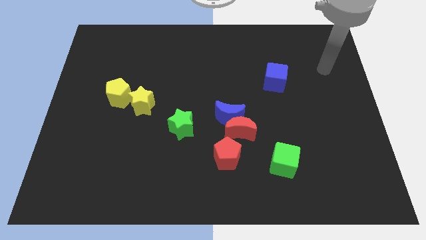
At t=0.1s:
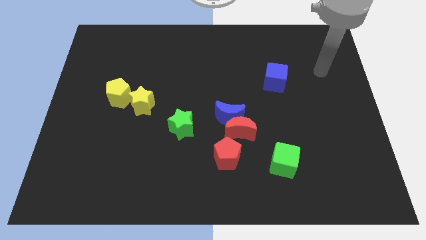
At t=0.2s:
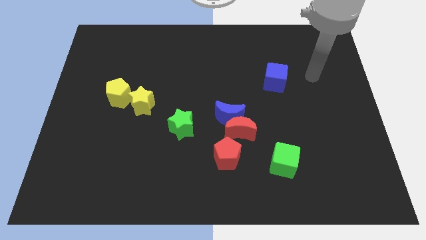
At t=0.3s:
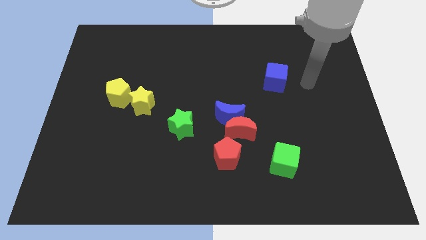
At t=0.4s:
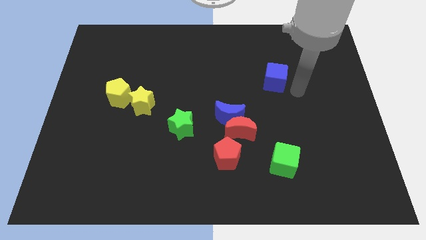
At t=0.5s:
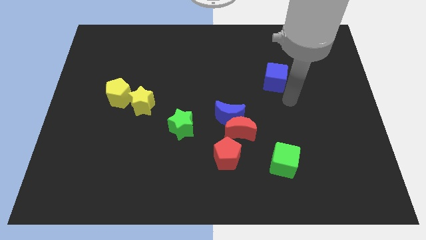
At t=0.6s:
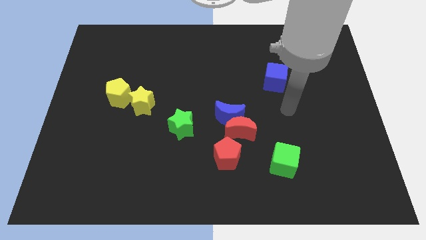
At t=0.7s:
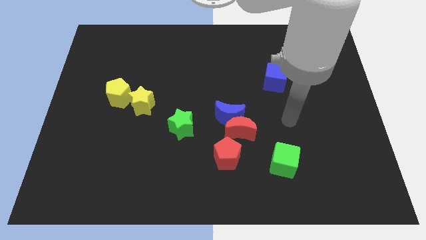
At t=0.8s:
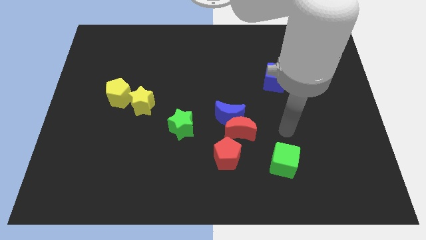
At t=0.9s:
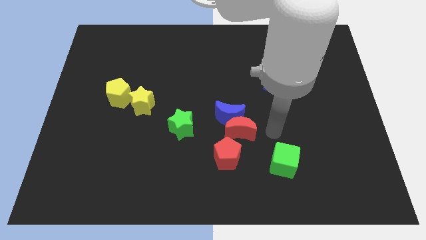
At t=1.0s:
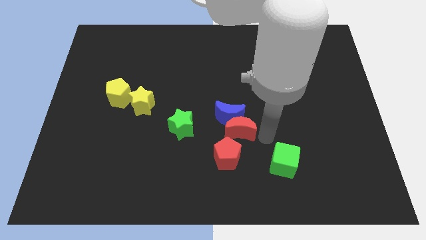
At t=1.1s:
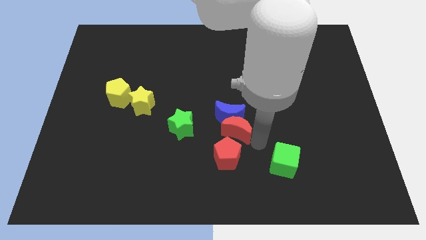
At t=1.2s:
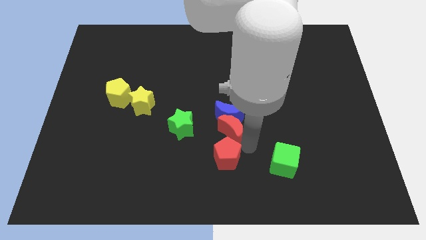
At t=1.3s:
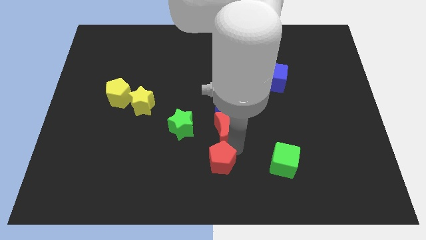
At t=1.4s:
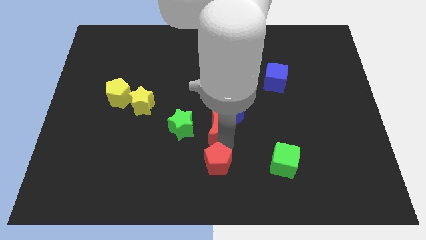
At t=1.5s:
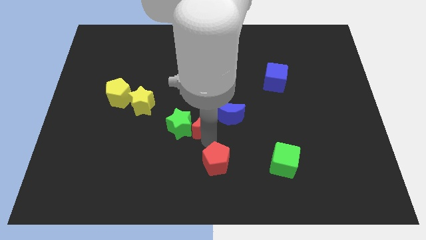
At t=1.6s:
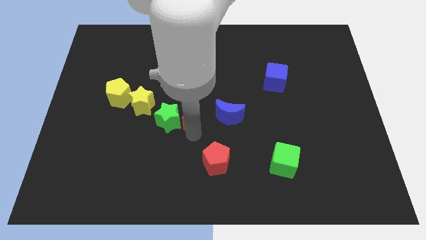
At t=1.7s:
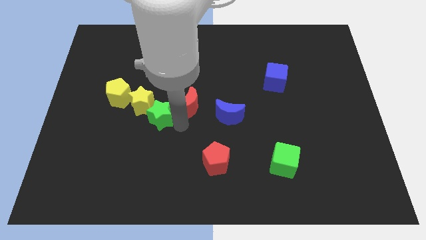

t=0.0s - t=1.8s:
move the red moon away from the blue moon and red pentagon

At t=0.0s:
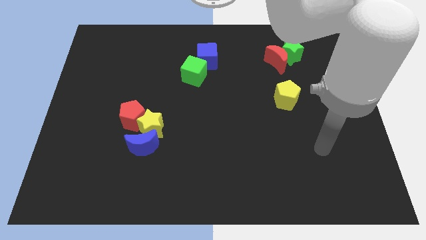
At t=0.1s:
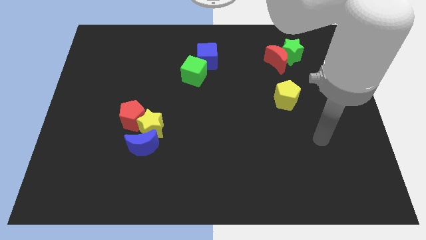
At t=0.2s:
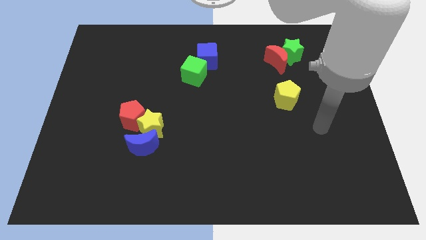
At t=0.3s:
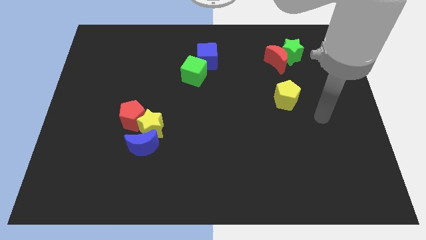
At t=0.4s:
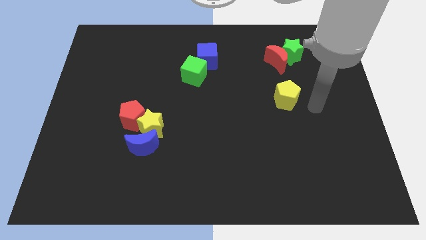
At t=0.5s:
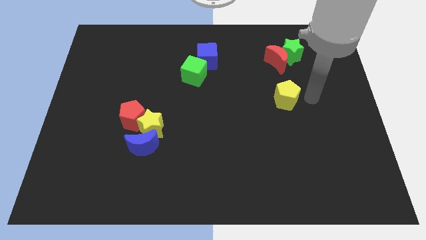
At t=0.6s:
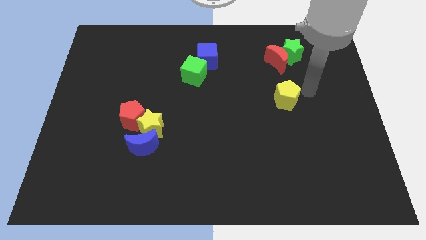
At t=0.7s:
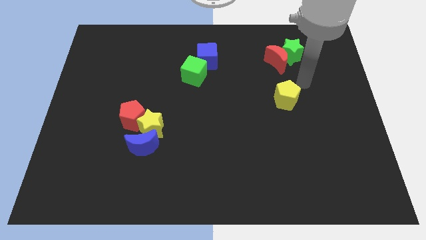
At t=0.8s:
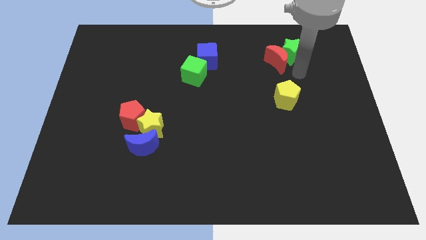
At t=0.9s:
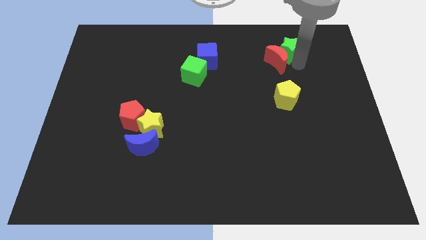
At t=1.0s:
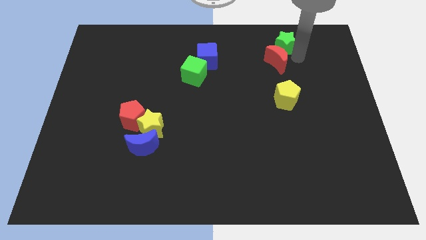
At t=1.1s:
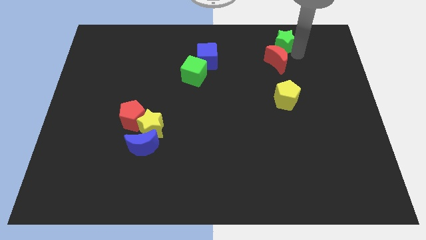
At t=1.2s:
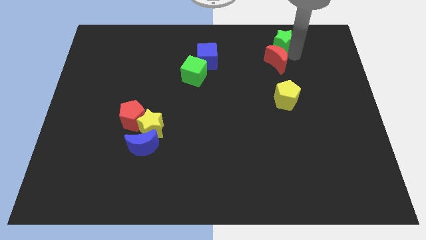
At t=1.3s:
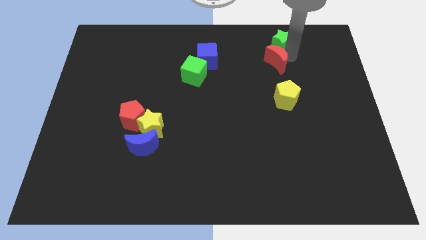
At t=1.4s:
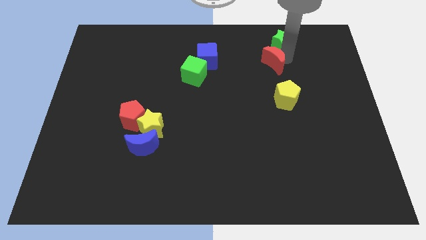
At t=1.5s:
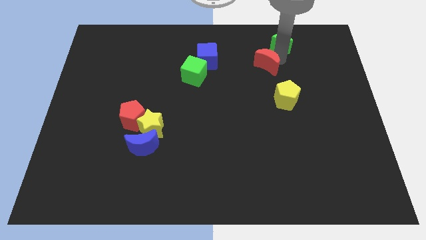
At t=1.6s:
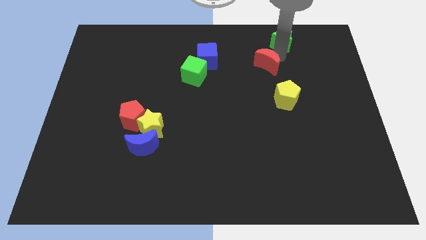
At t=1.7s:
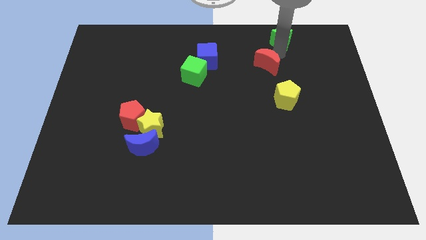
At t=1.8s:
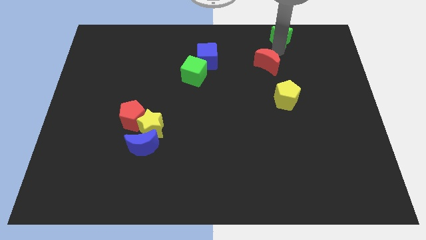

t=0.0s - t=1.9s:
pull the red moon apart from the green star

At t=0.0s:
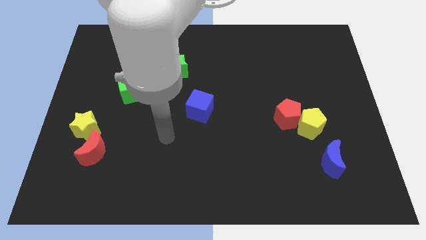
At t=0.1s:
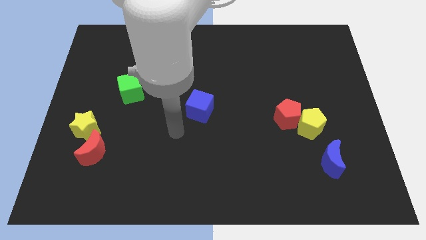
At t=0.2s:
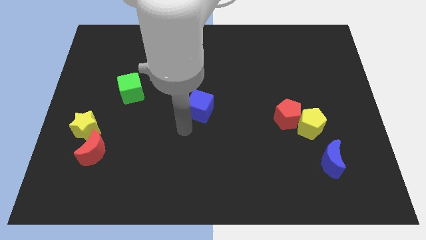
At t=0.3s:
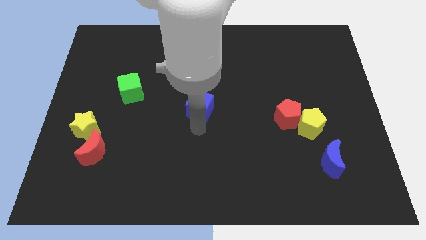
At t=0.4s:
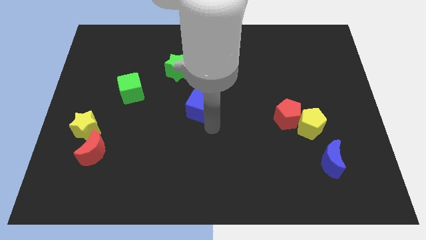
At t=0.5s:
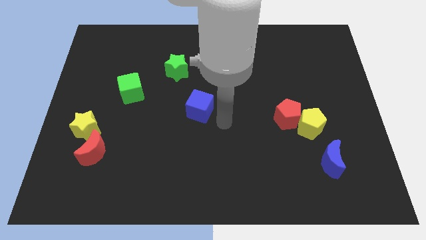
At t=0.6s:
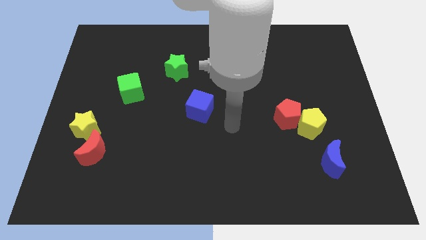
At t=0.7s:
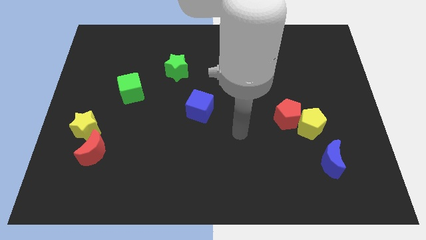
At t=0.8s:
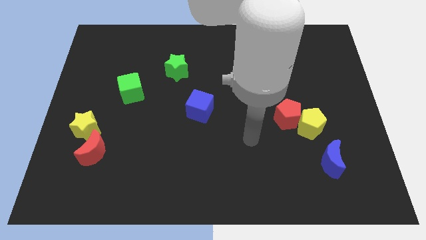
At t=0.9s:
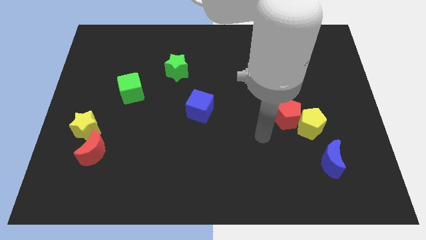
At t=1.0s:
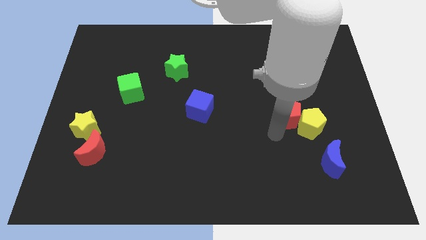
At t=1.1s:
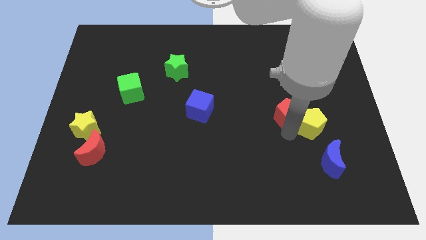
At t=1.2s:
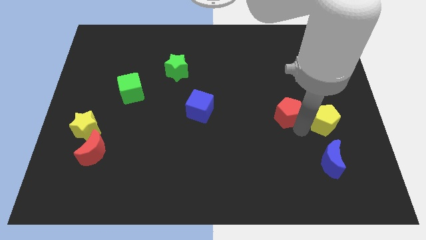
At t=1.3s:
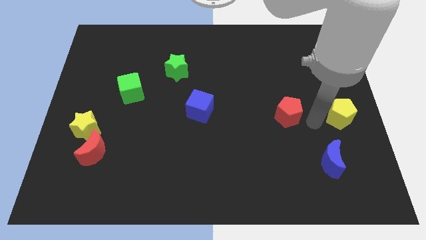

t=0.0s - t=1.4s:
separate the red pentagon from the yellow pentagon

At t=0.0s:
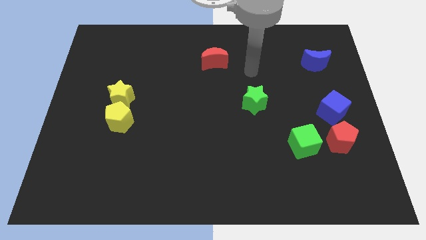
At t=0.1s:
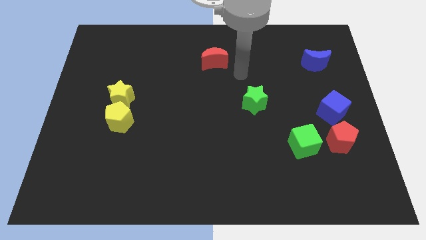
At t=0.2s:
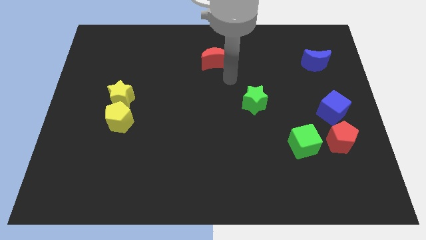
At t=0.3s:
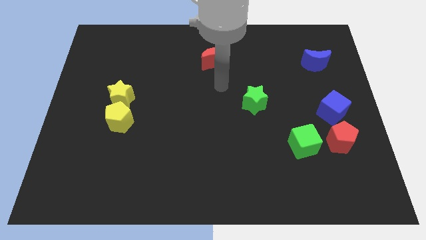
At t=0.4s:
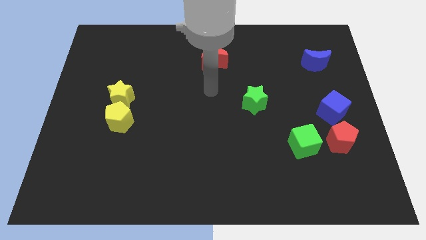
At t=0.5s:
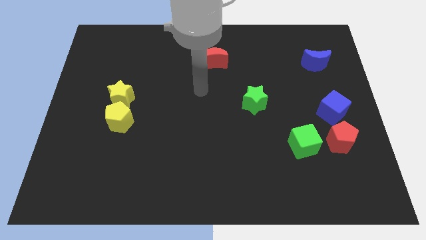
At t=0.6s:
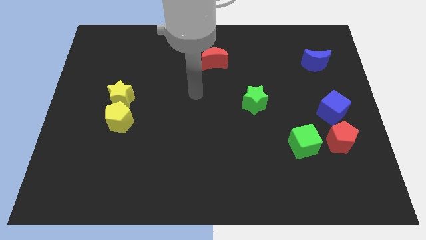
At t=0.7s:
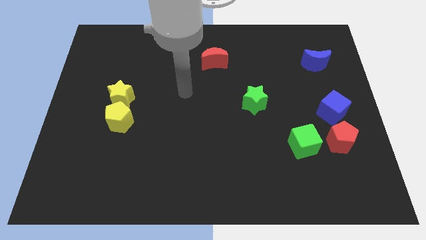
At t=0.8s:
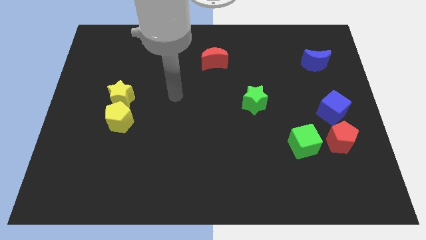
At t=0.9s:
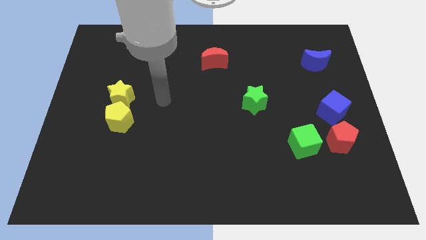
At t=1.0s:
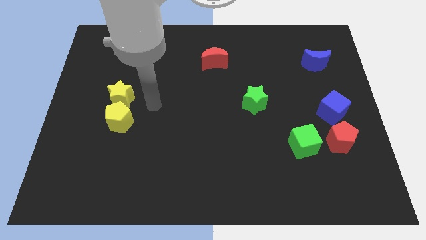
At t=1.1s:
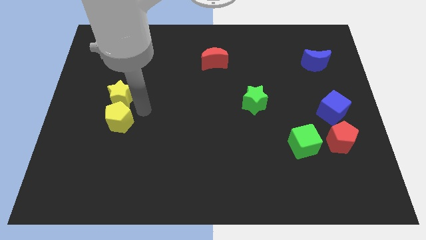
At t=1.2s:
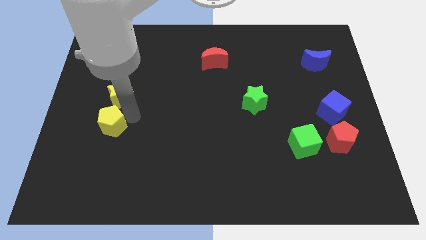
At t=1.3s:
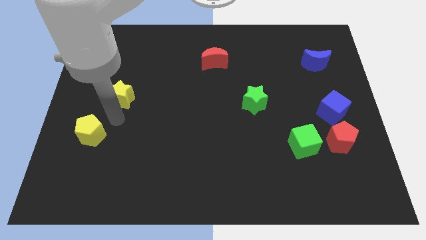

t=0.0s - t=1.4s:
move the yellow star away from the yellow pentagon

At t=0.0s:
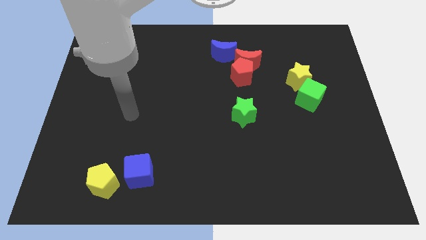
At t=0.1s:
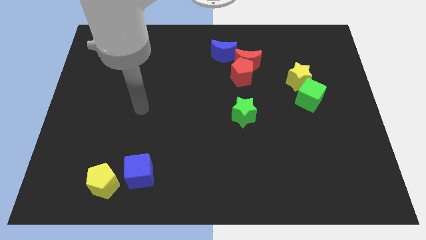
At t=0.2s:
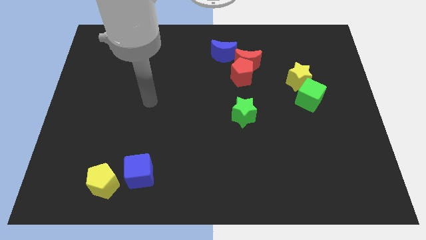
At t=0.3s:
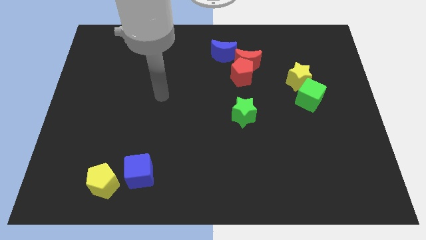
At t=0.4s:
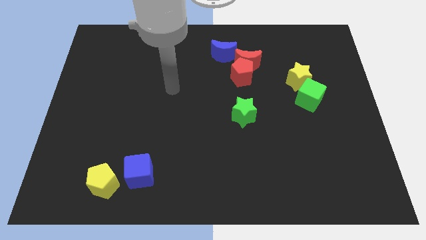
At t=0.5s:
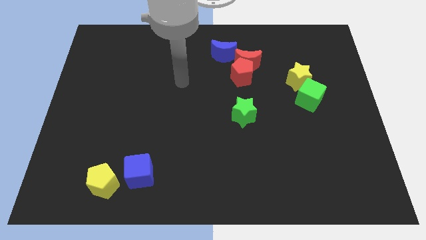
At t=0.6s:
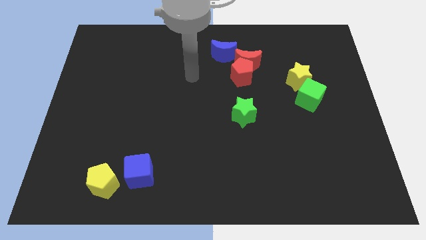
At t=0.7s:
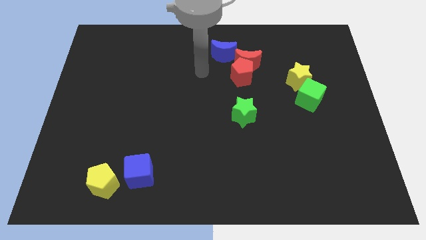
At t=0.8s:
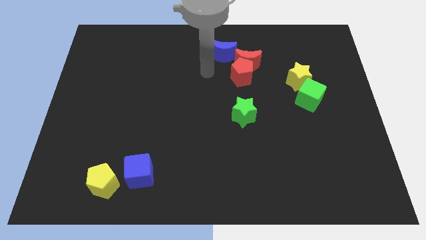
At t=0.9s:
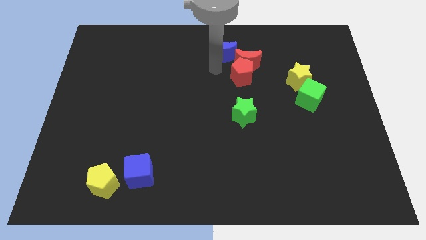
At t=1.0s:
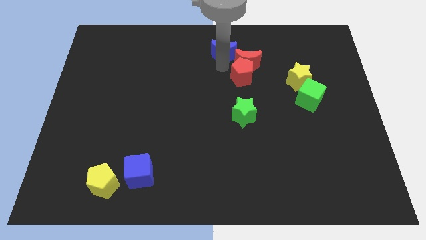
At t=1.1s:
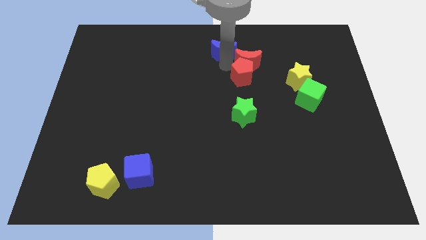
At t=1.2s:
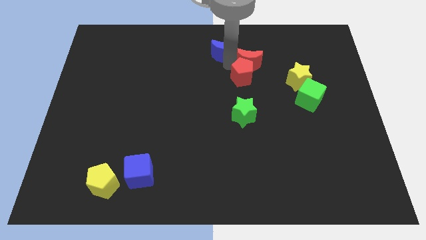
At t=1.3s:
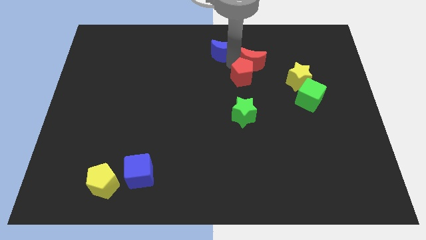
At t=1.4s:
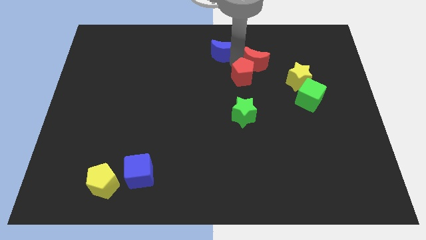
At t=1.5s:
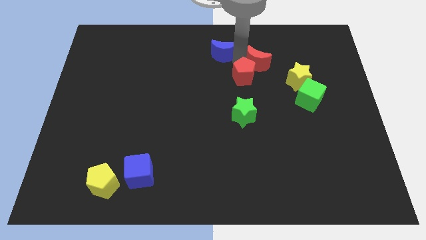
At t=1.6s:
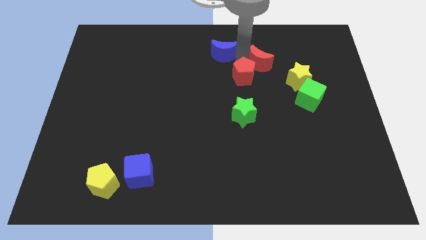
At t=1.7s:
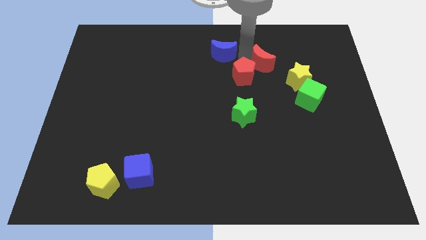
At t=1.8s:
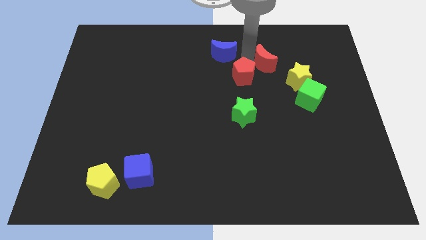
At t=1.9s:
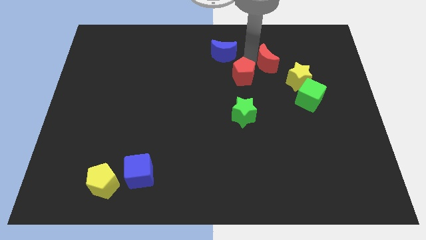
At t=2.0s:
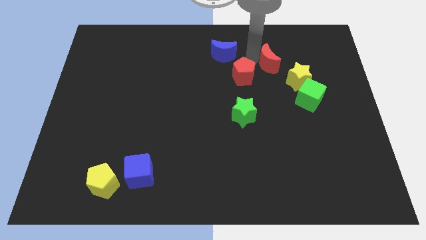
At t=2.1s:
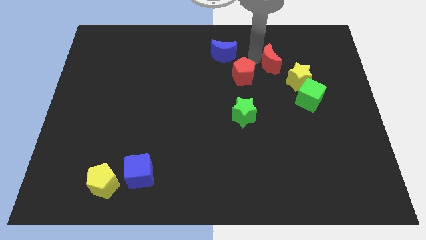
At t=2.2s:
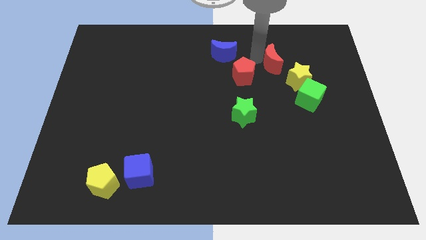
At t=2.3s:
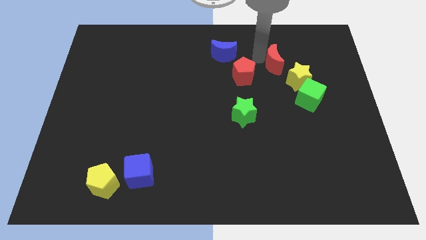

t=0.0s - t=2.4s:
pull the red moon apart from the red pentagon and blue moon

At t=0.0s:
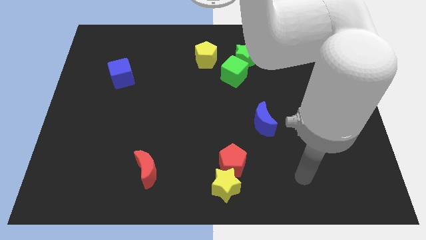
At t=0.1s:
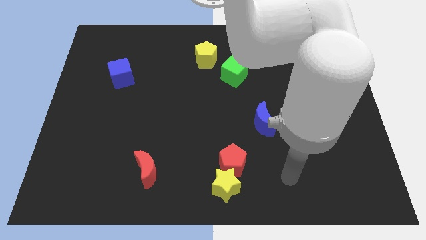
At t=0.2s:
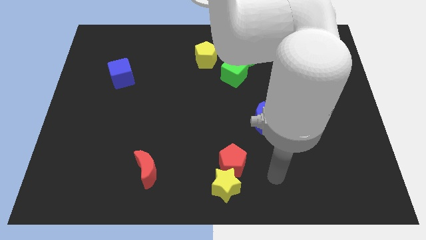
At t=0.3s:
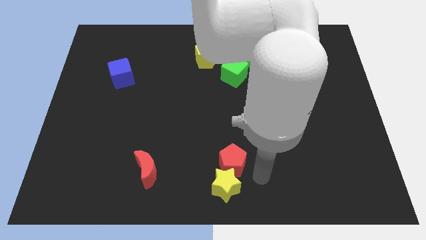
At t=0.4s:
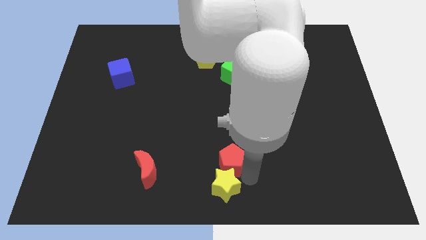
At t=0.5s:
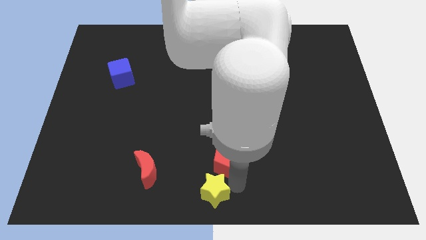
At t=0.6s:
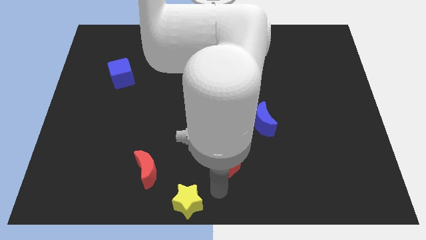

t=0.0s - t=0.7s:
move the red pentagon away from the yellow star
